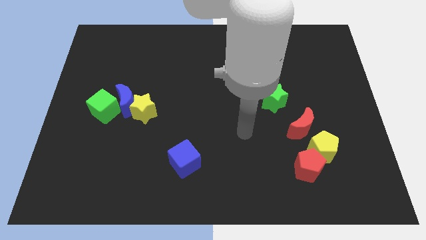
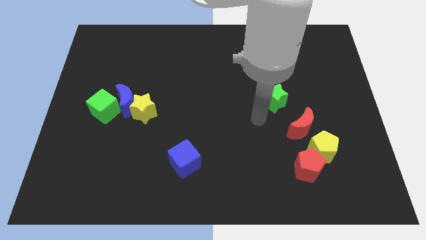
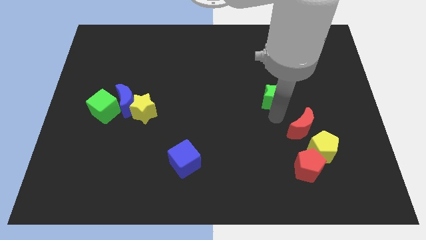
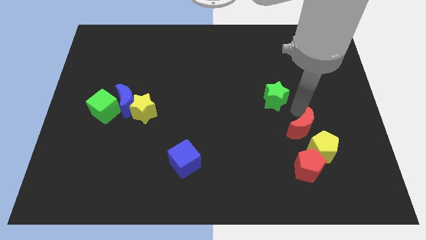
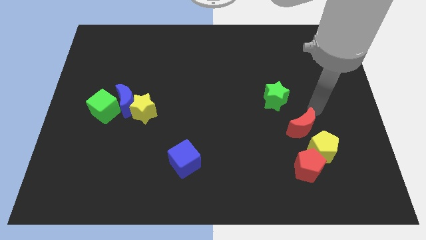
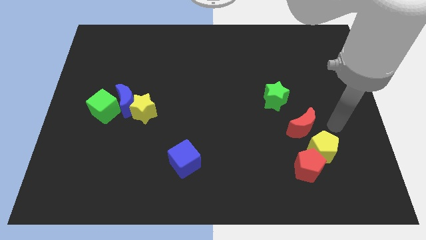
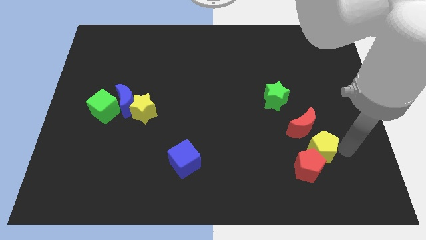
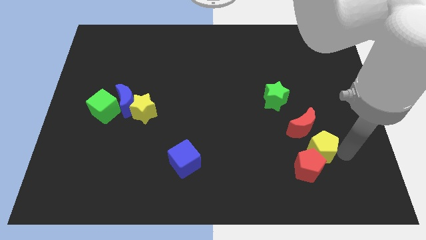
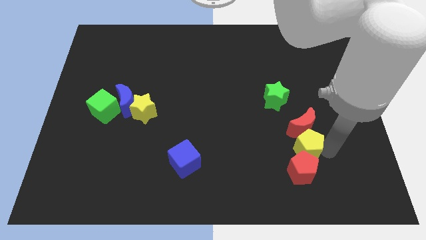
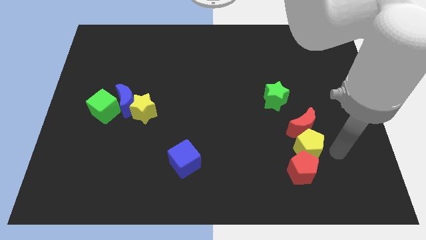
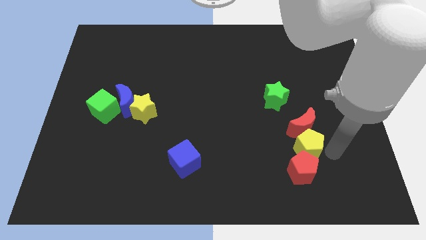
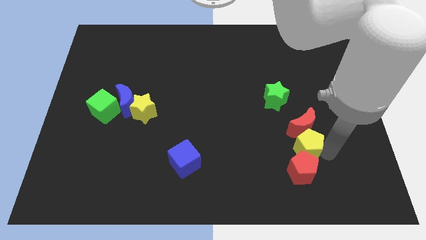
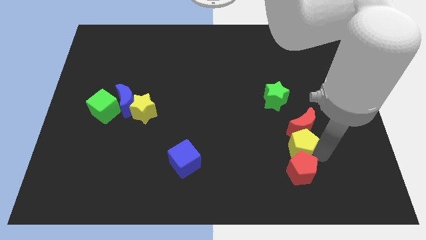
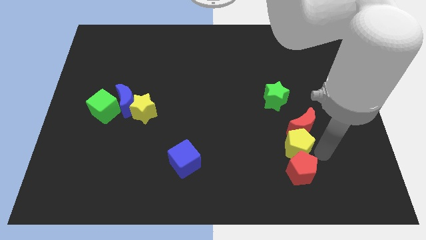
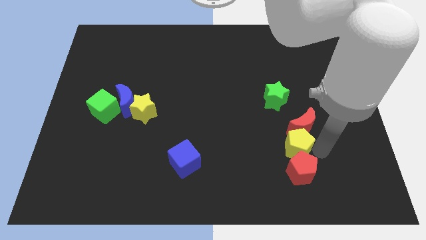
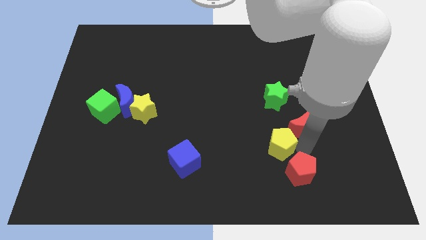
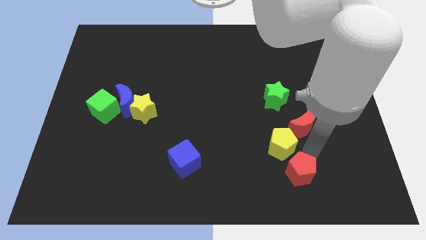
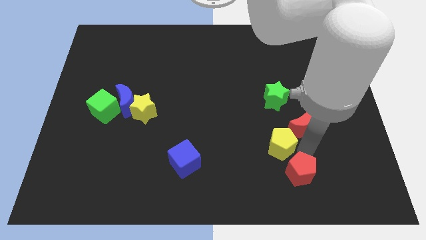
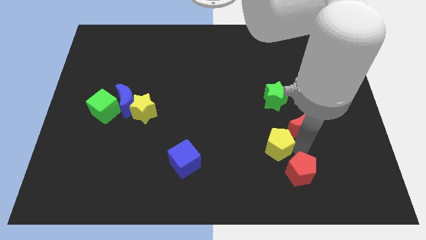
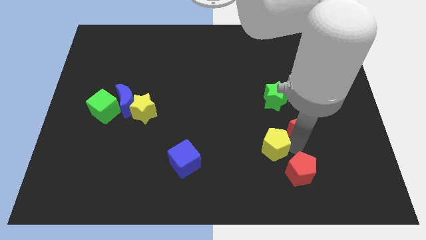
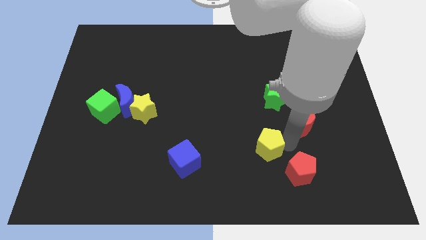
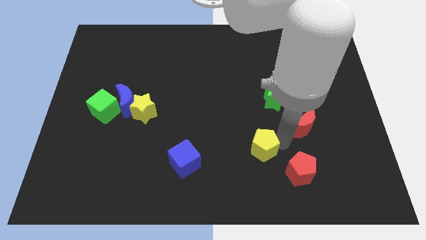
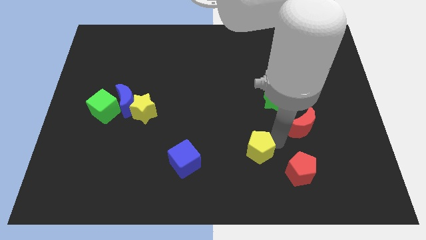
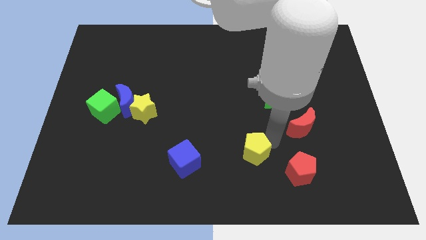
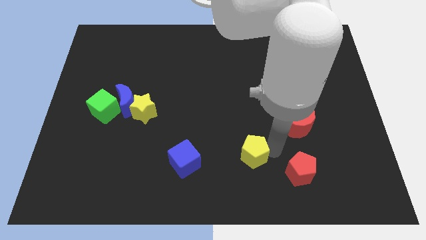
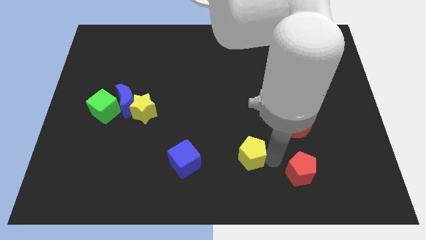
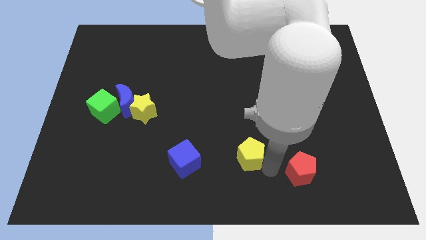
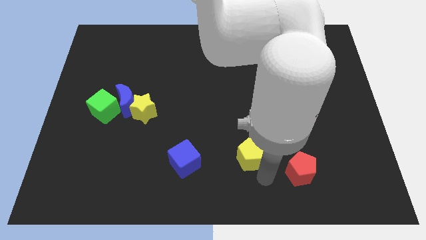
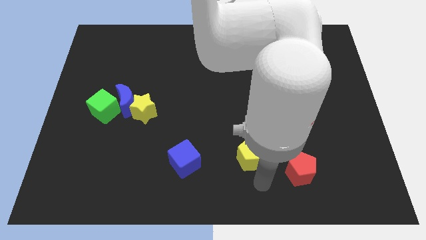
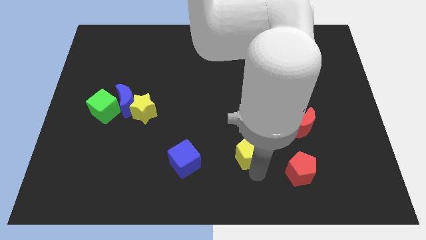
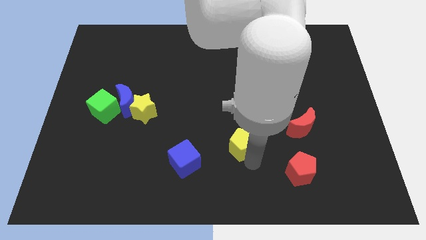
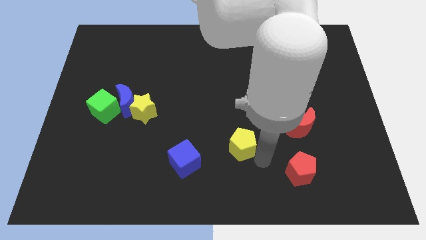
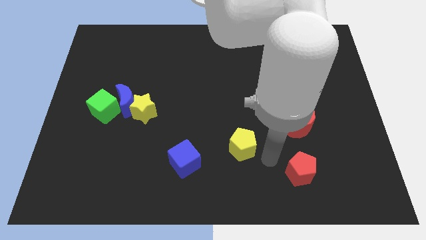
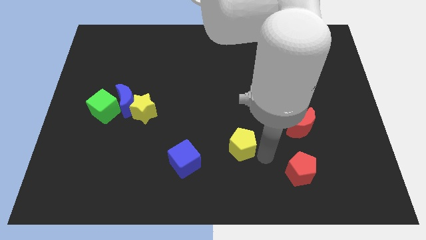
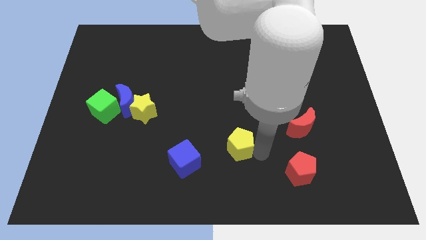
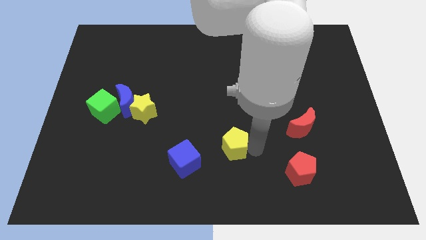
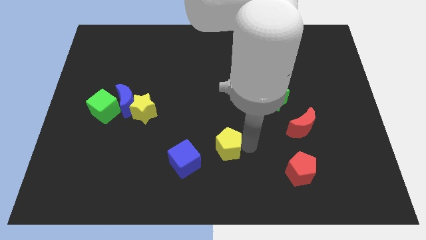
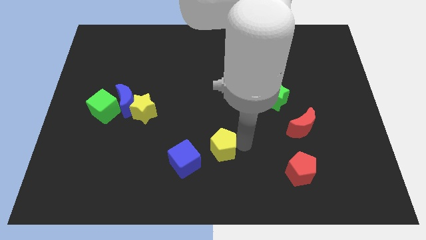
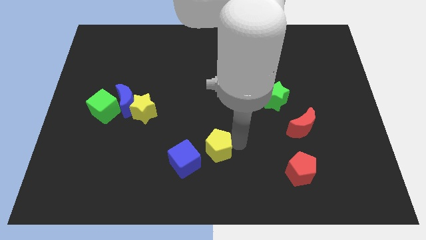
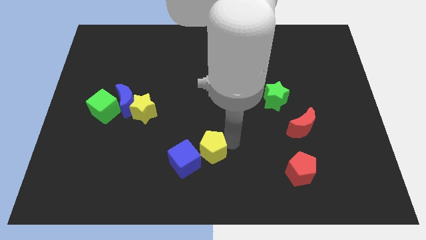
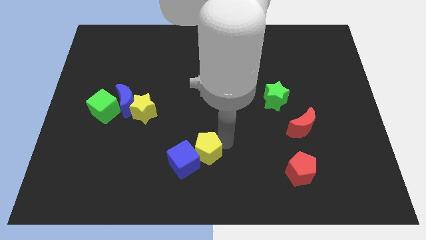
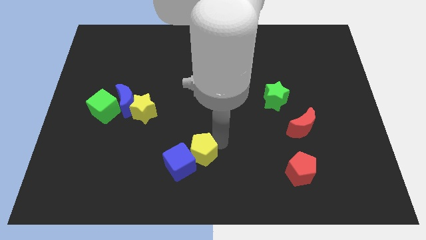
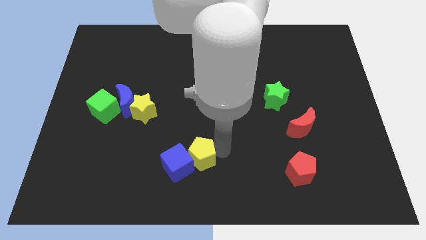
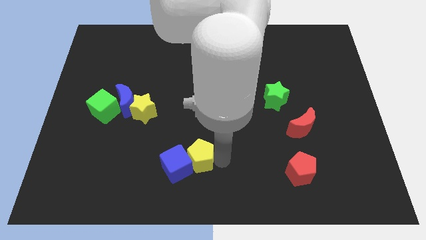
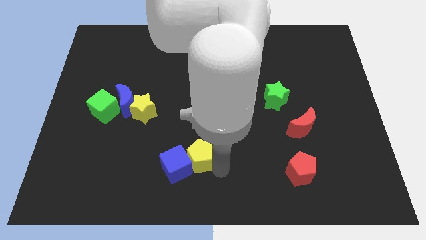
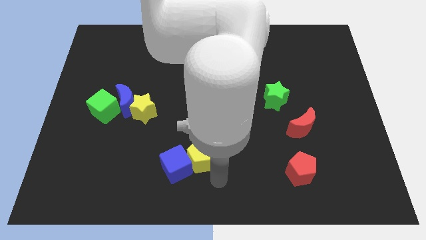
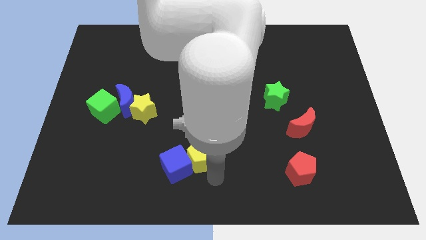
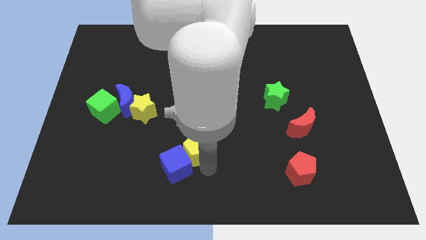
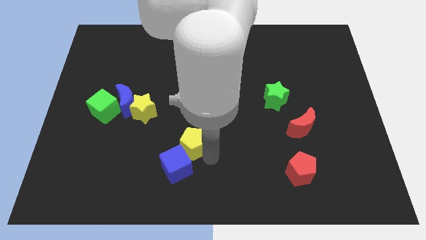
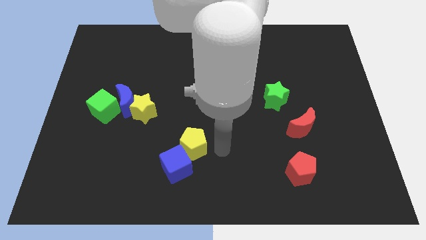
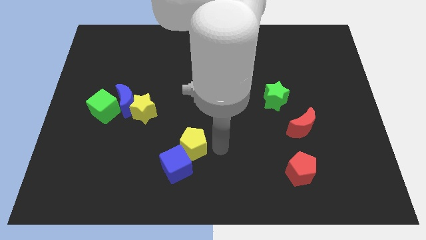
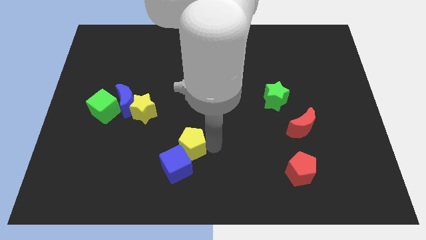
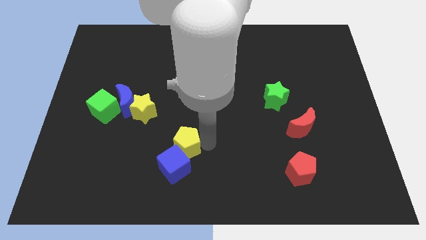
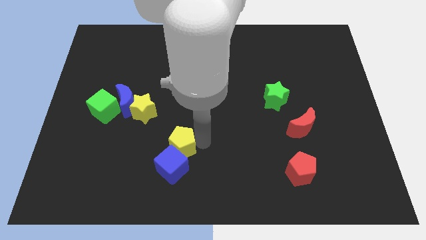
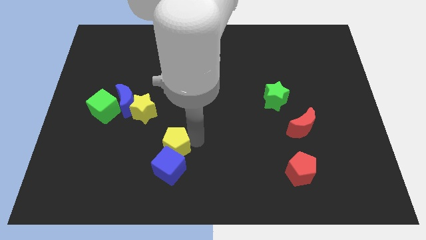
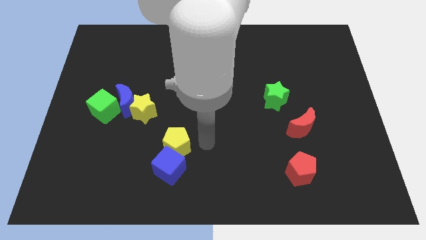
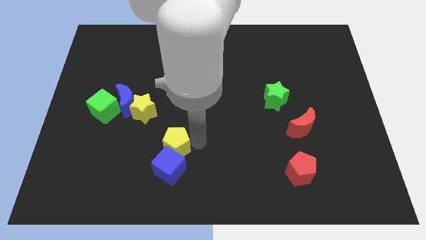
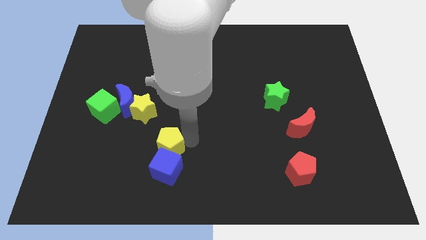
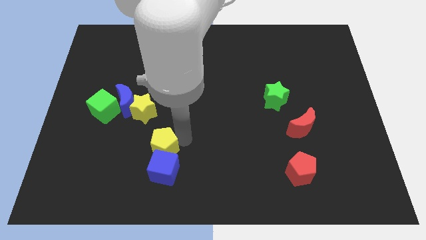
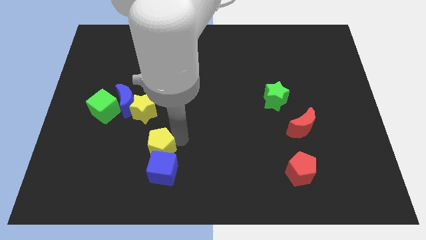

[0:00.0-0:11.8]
move the yellow pentagon to the bottom of the yellow star

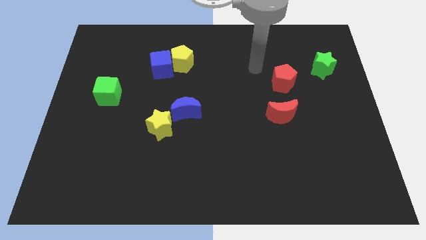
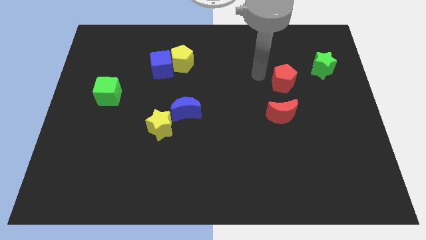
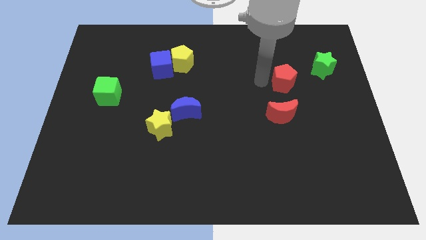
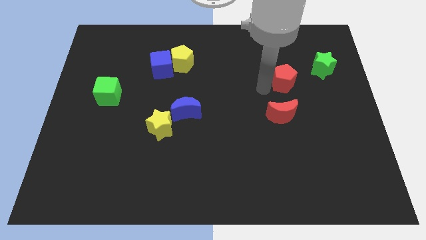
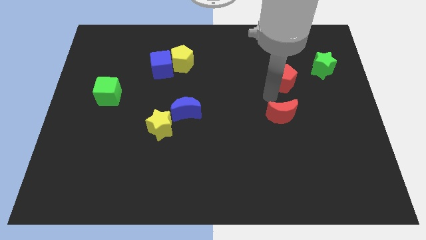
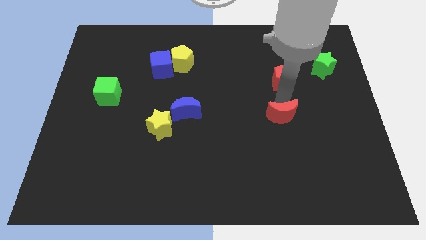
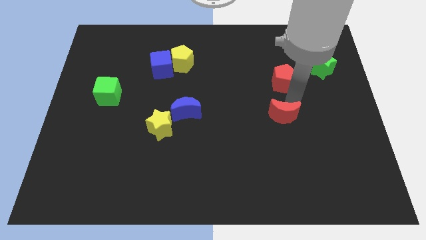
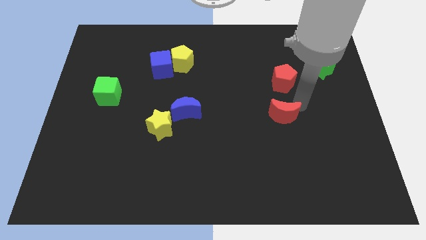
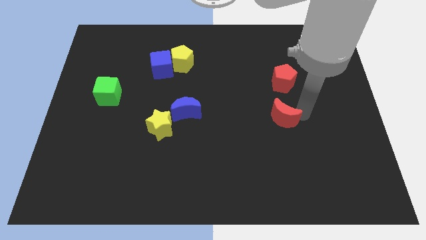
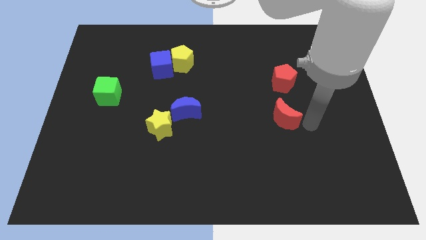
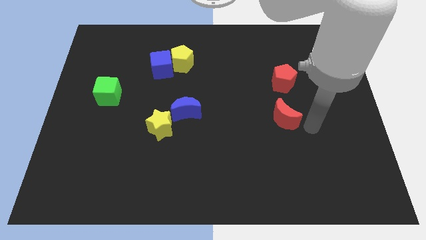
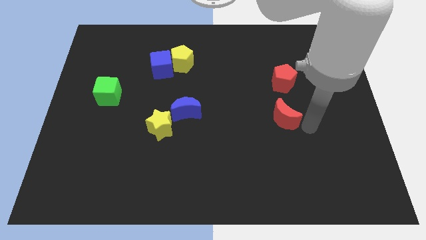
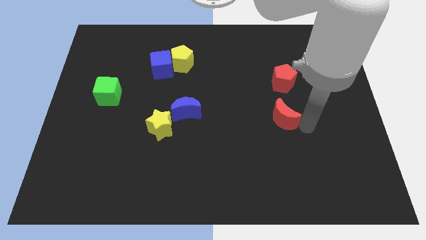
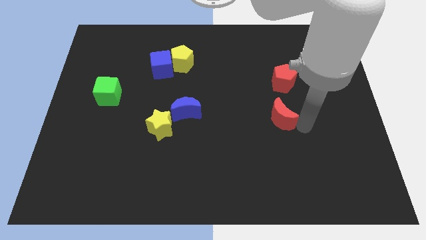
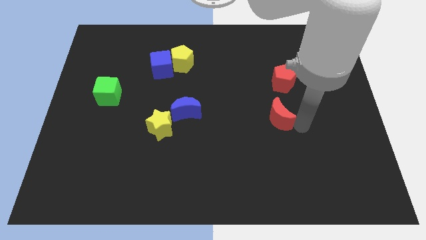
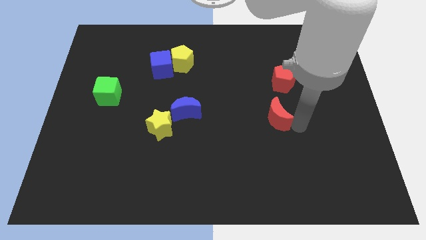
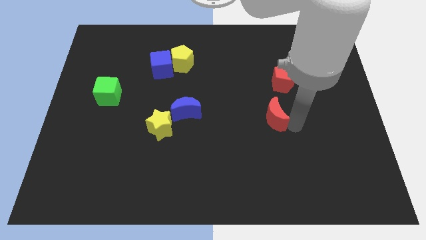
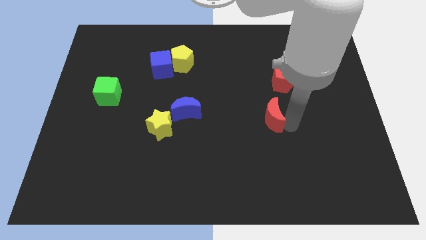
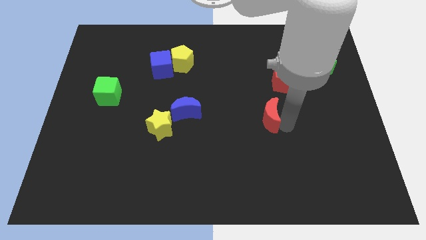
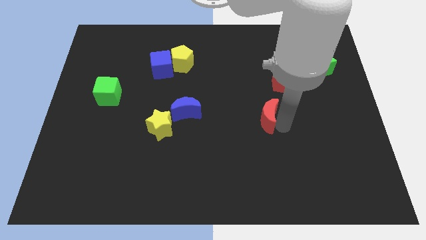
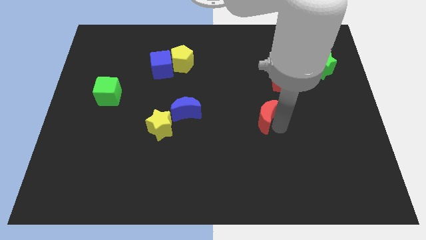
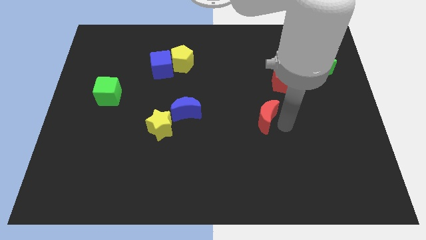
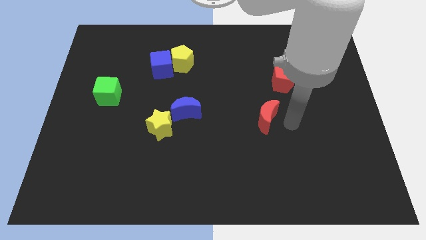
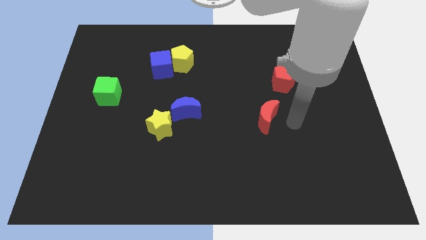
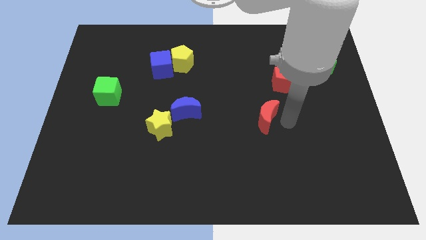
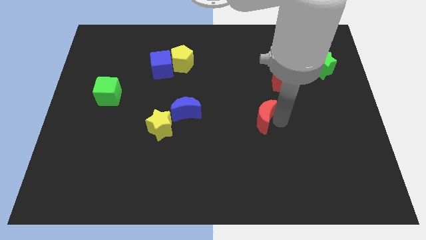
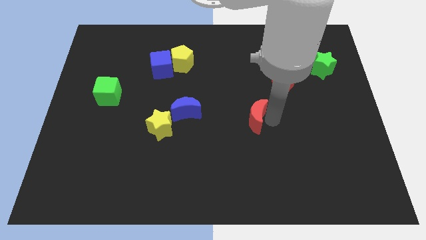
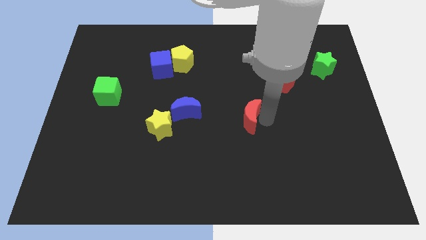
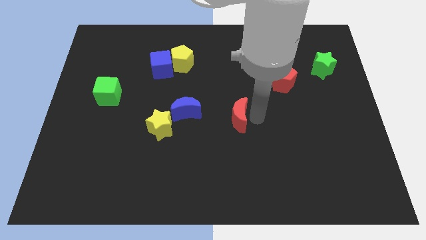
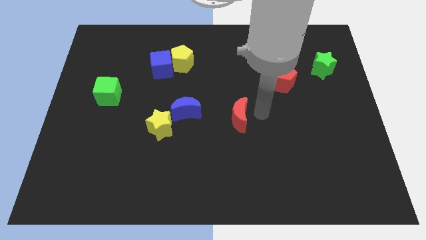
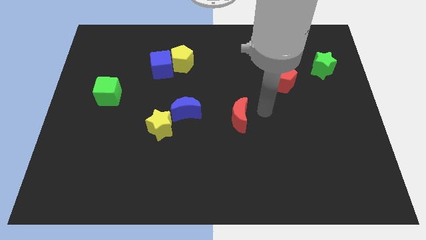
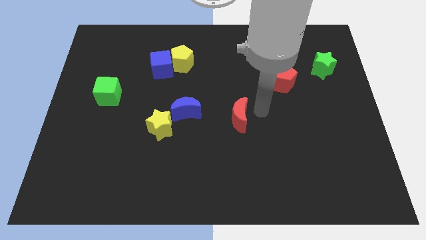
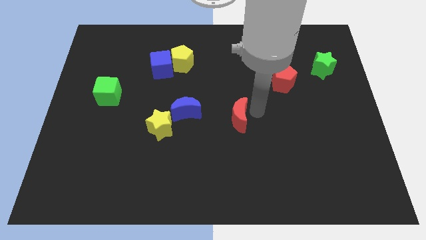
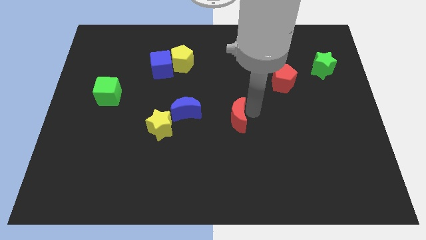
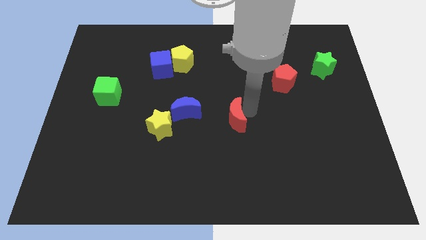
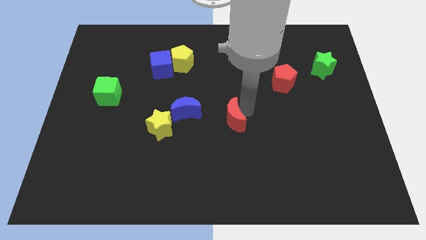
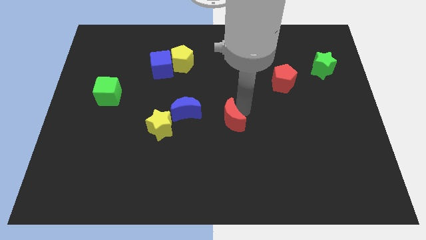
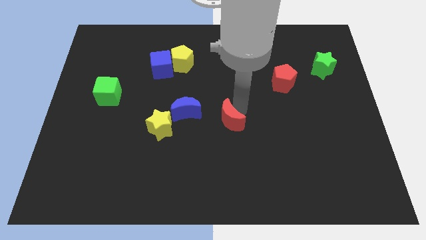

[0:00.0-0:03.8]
put the red moon to the right of the yellow star
